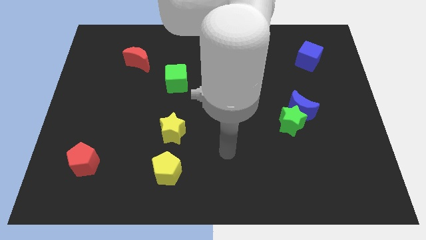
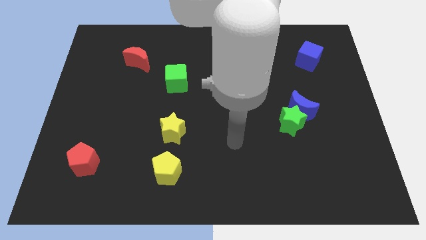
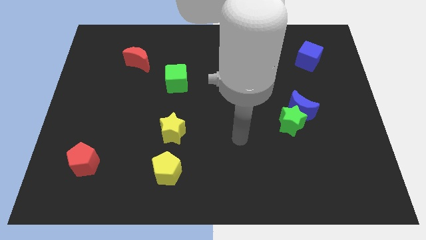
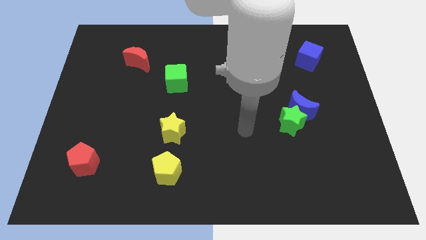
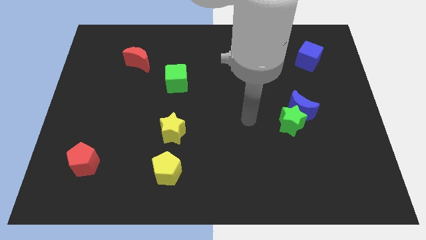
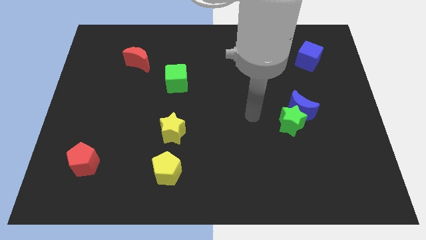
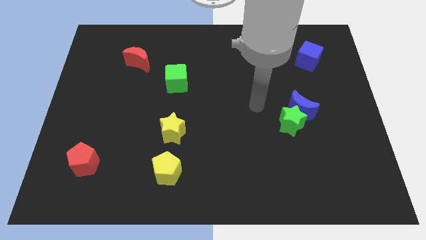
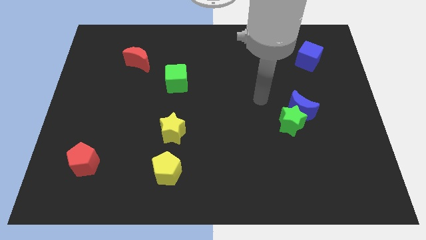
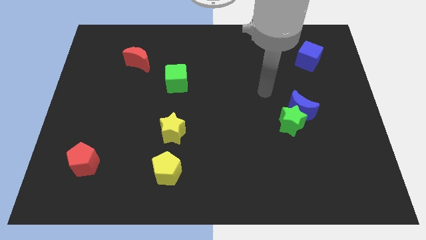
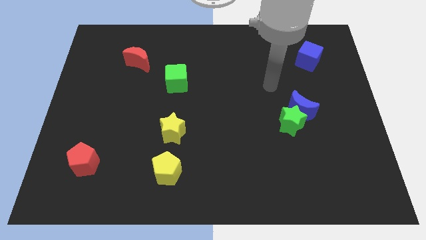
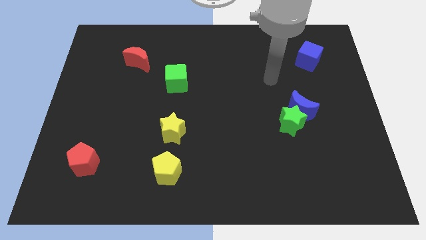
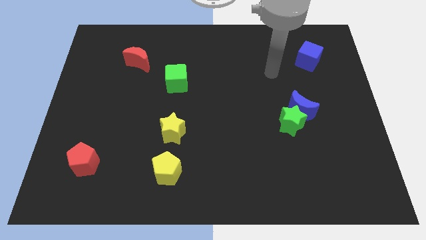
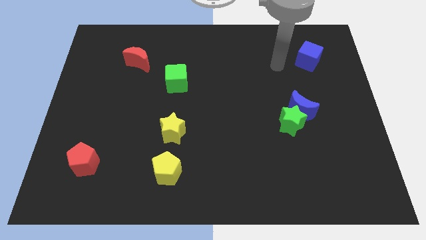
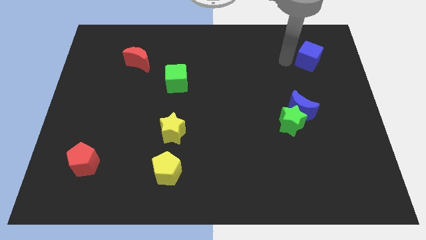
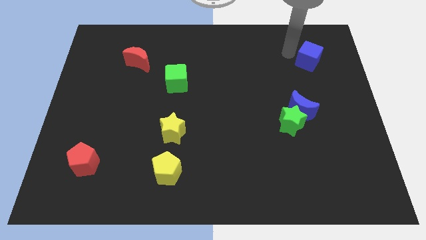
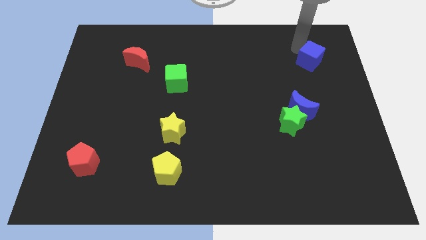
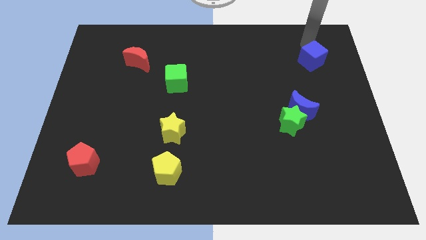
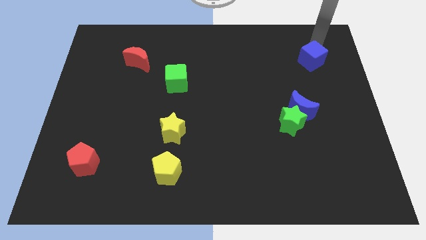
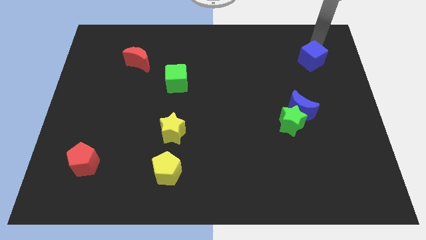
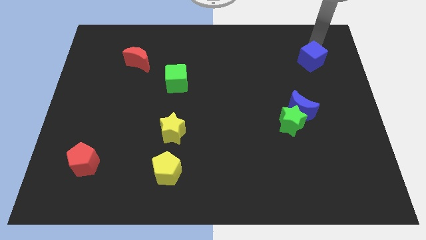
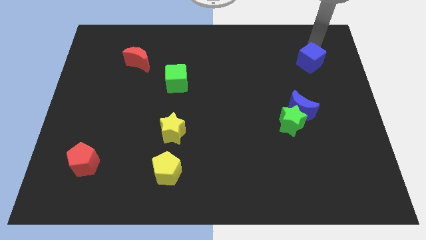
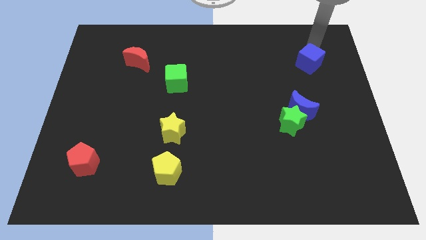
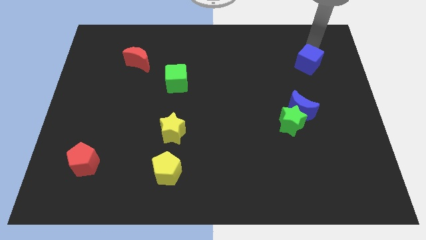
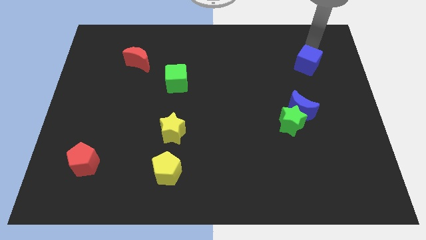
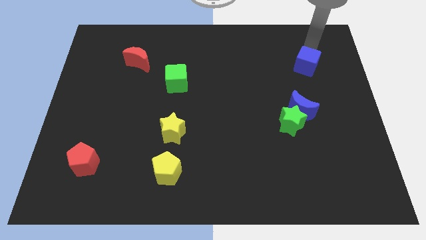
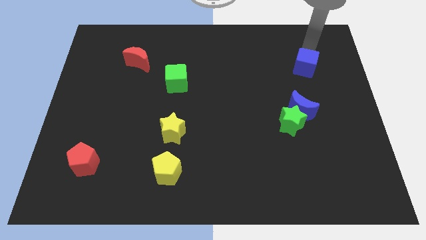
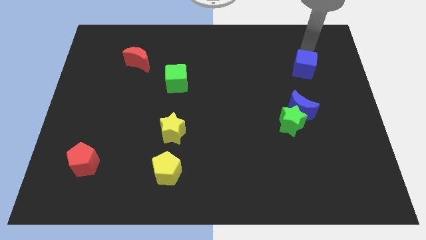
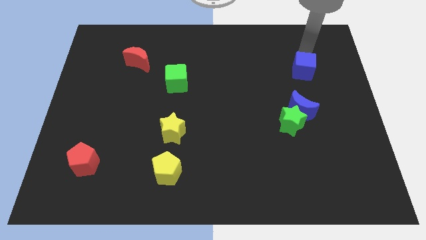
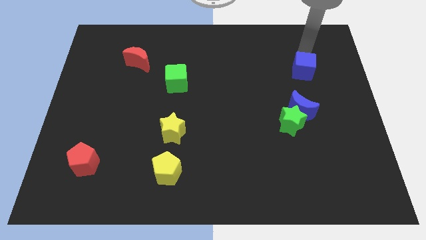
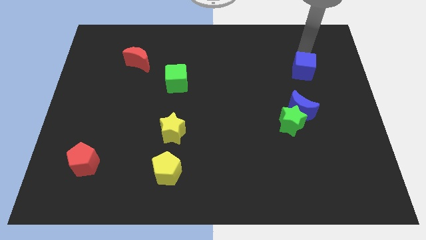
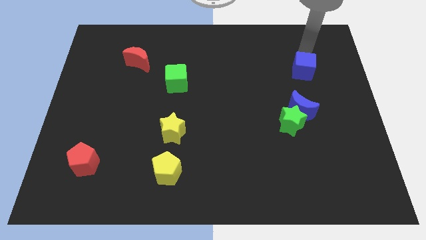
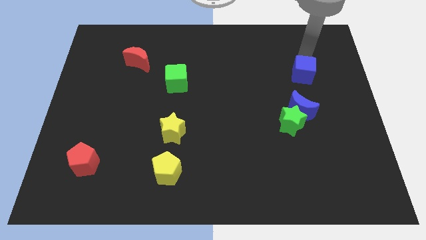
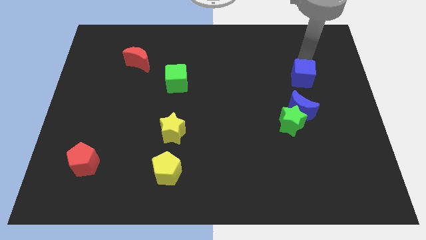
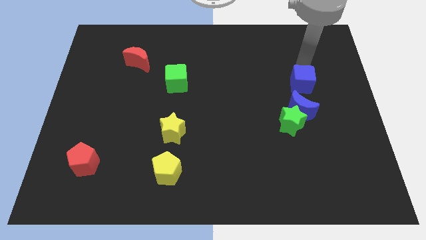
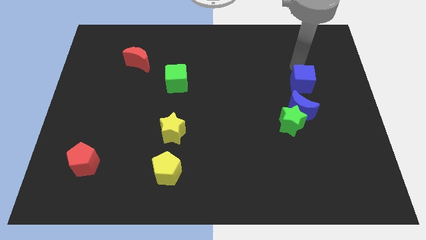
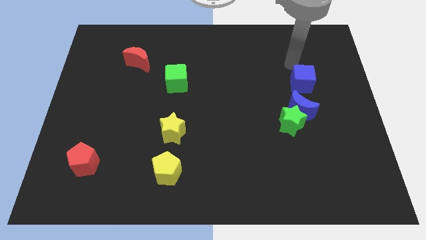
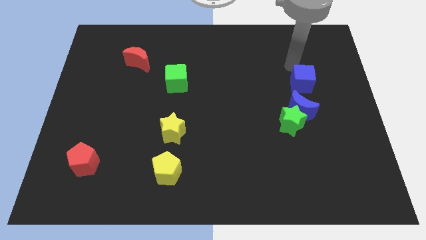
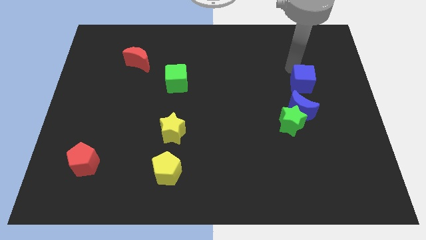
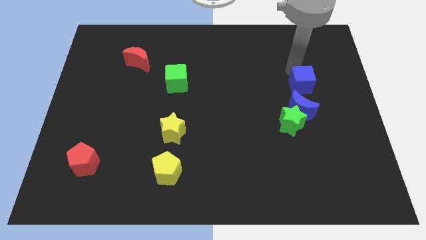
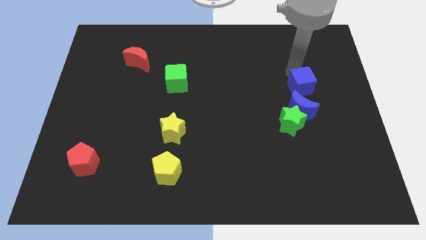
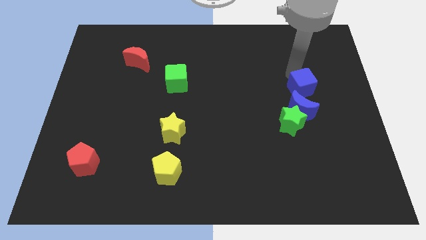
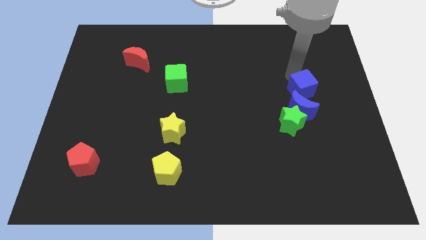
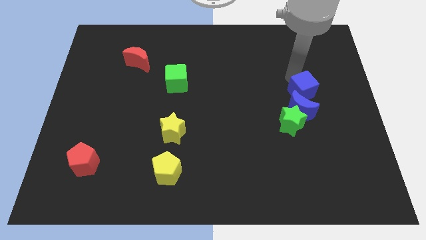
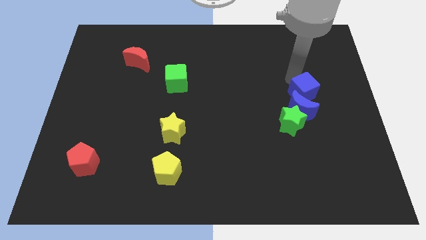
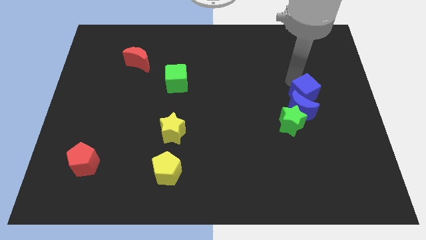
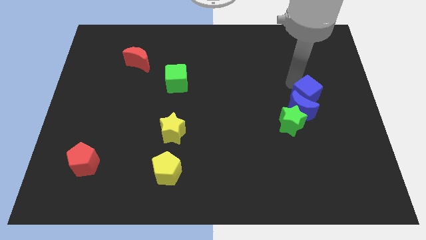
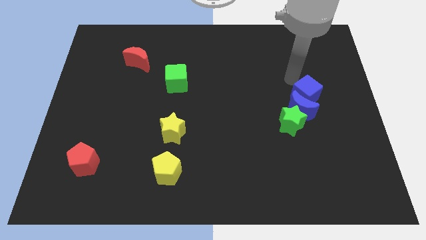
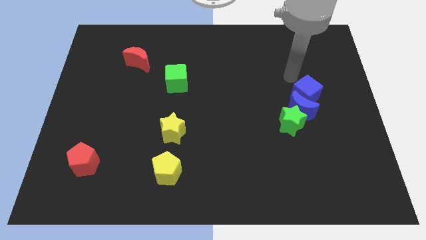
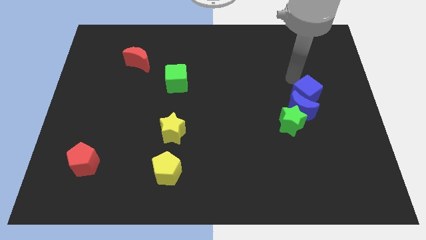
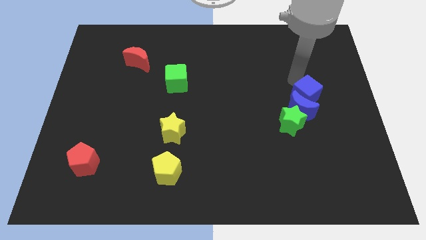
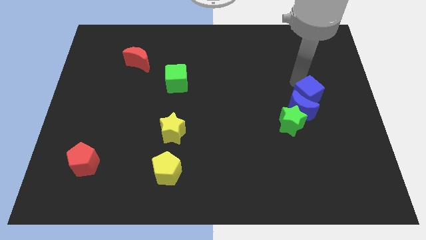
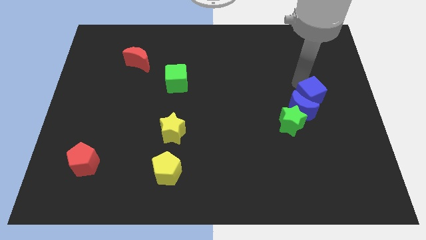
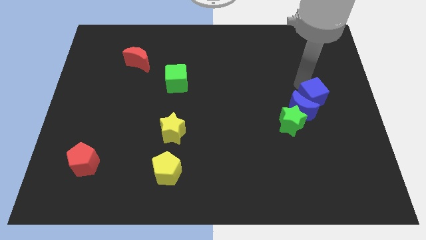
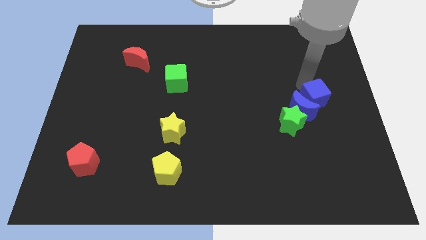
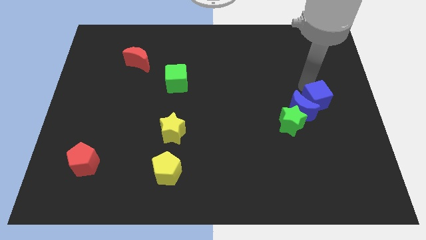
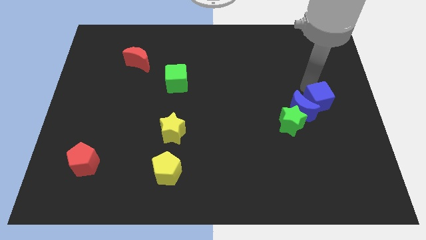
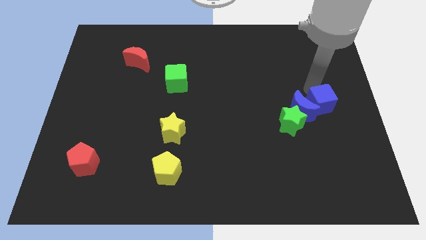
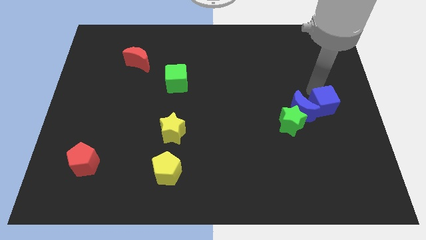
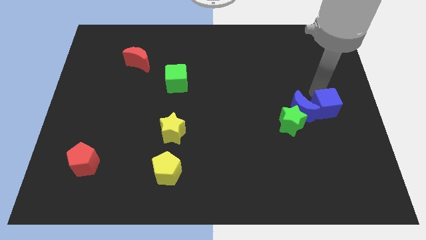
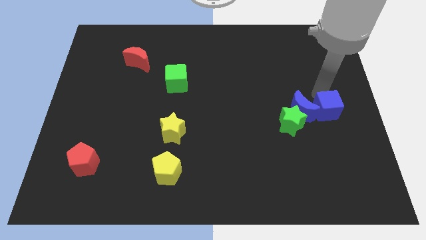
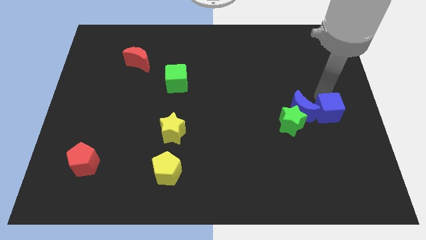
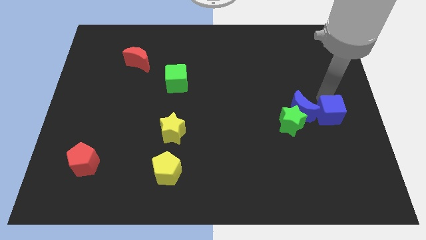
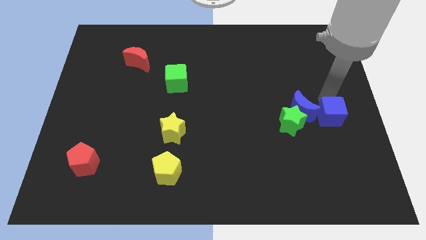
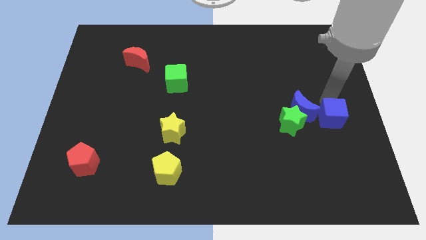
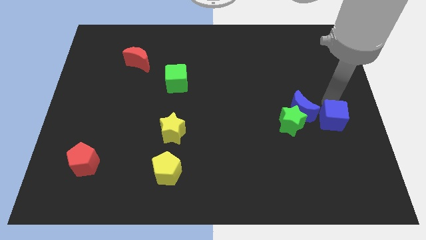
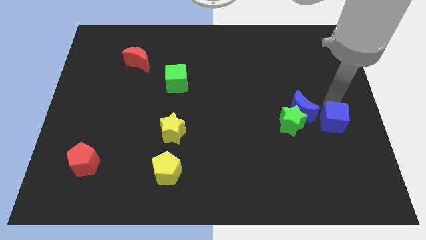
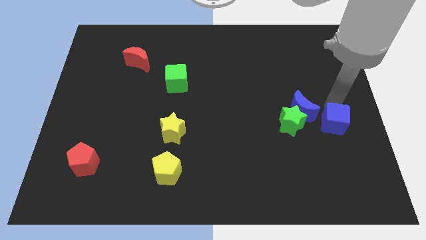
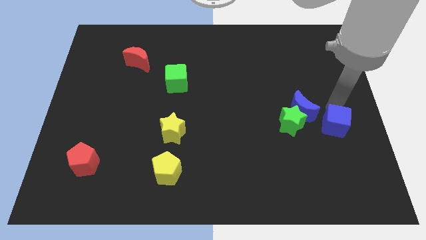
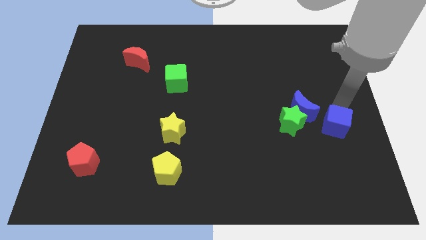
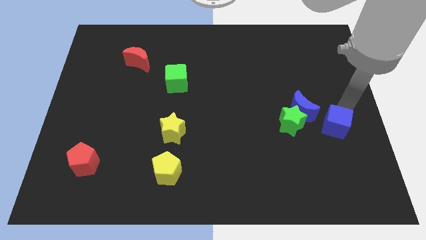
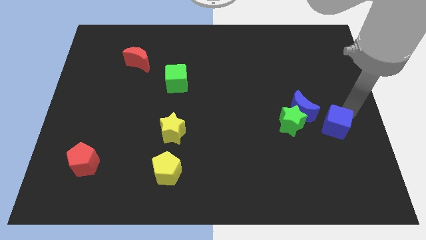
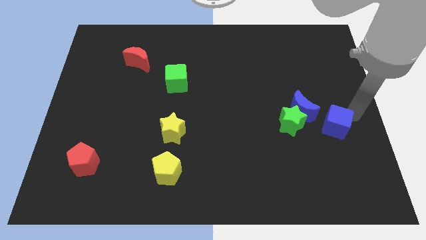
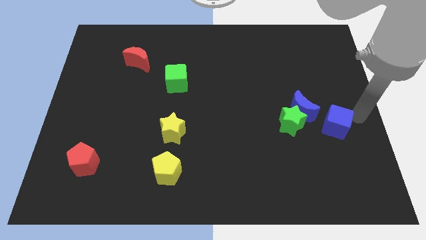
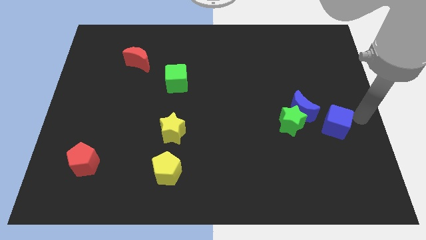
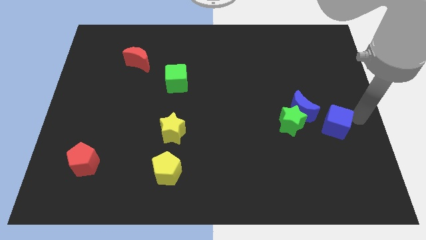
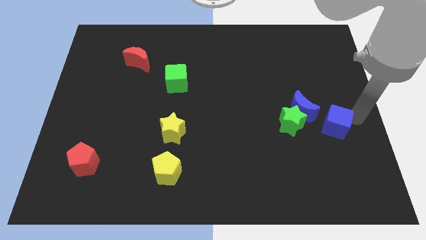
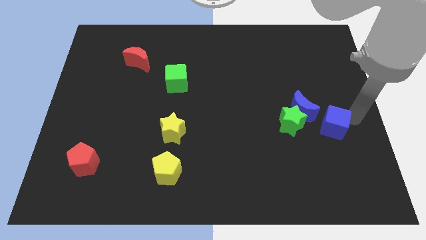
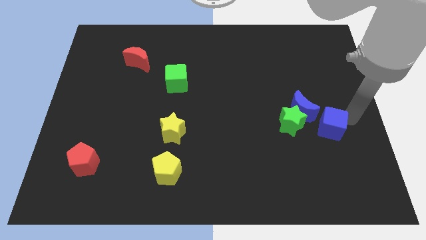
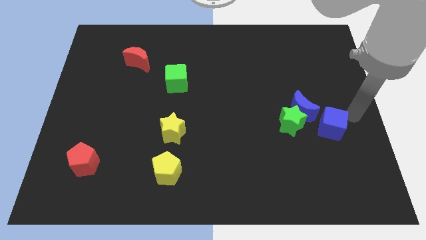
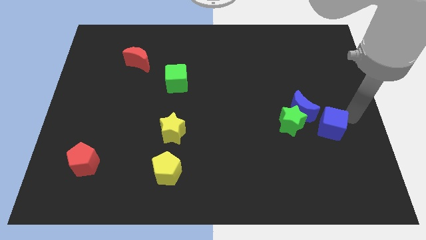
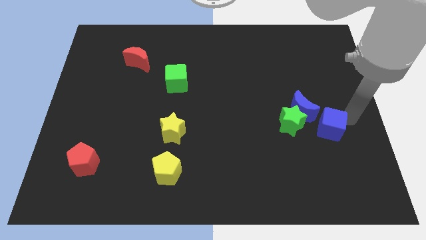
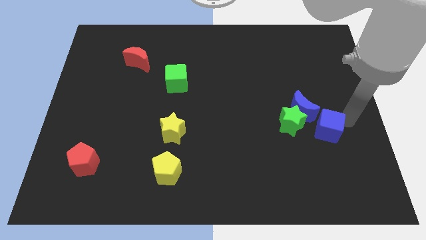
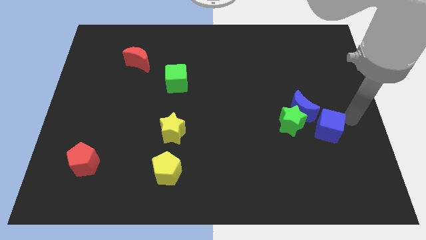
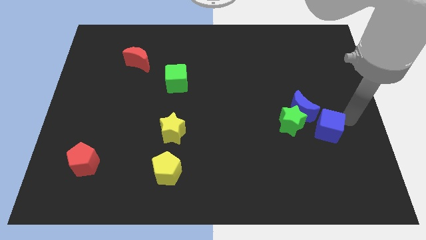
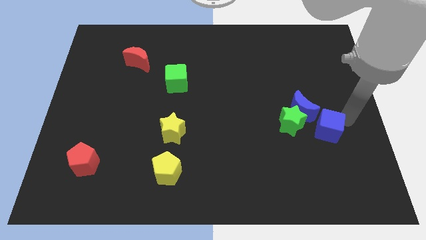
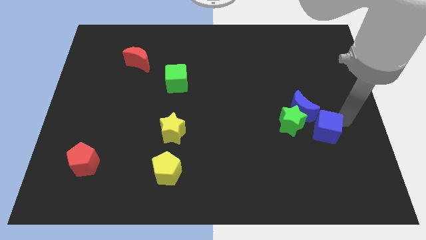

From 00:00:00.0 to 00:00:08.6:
move the blue cube to the bottom side of the blue moon
